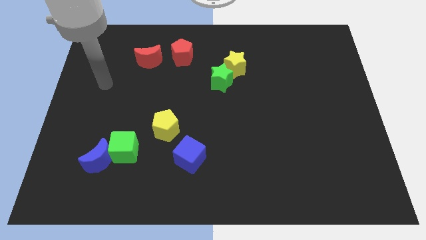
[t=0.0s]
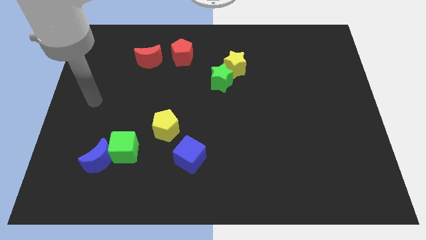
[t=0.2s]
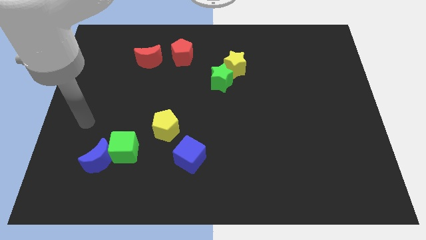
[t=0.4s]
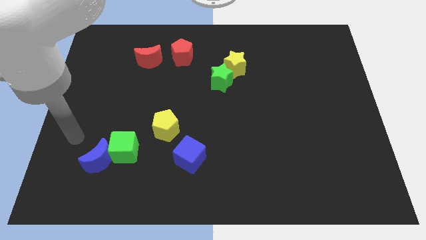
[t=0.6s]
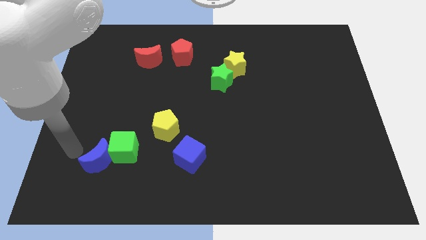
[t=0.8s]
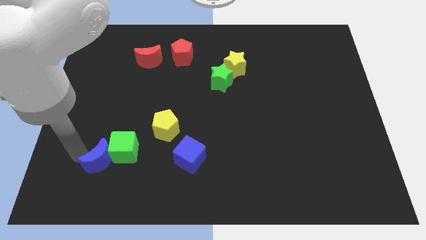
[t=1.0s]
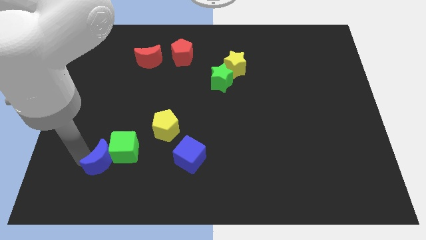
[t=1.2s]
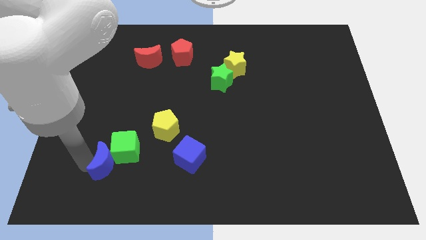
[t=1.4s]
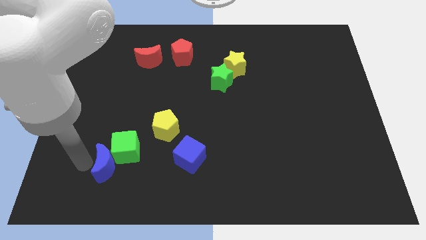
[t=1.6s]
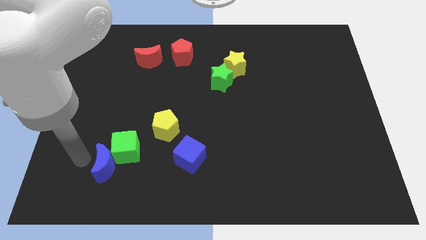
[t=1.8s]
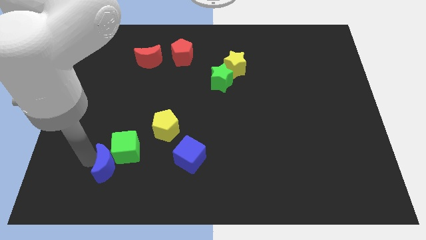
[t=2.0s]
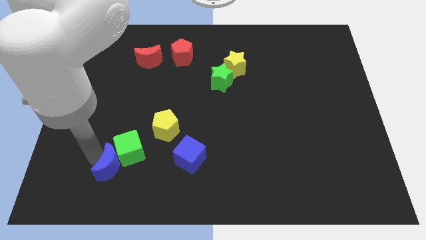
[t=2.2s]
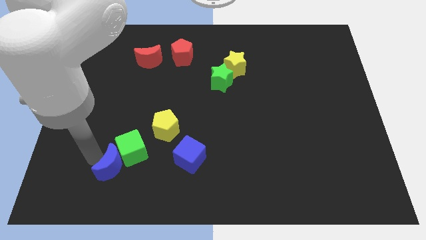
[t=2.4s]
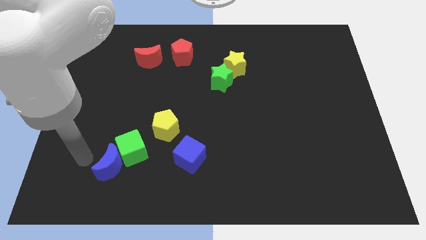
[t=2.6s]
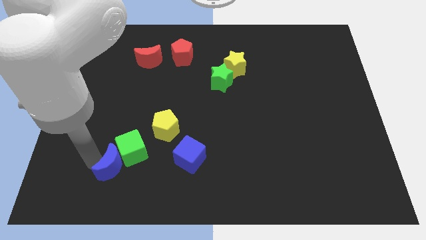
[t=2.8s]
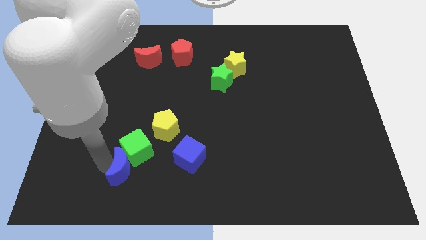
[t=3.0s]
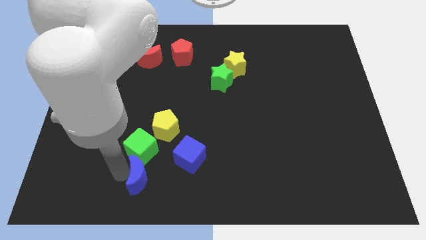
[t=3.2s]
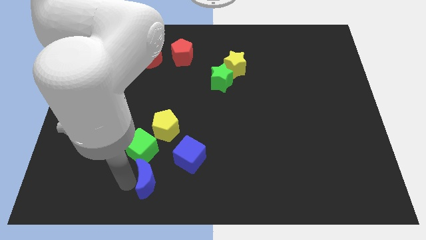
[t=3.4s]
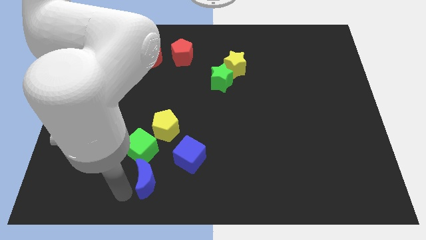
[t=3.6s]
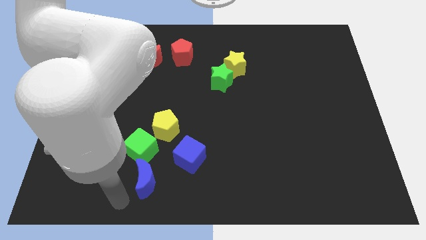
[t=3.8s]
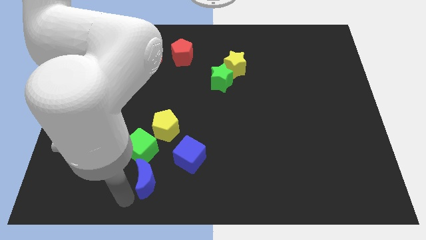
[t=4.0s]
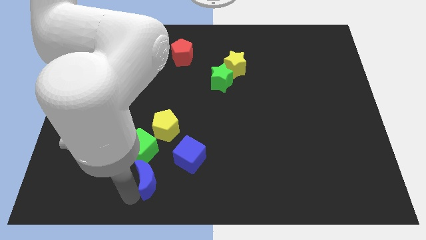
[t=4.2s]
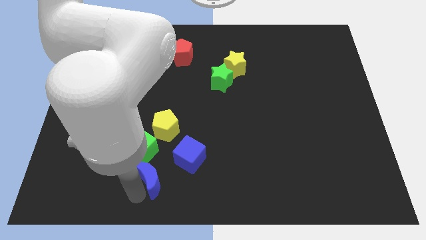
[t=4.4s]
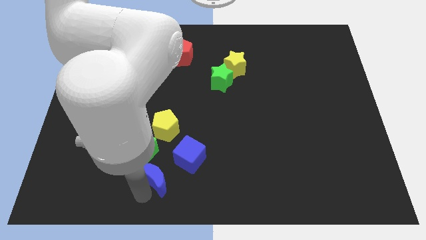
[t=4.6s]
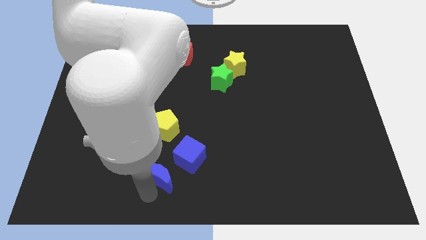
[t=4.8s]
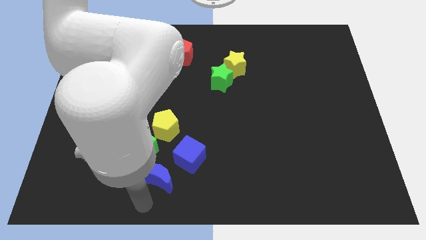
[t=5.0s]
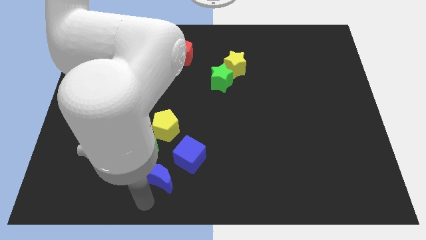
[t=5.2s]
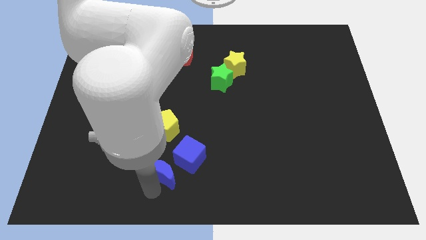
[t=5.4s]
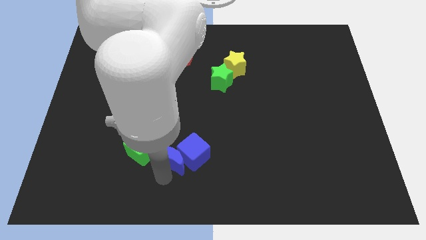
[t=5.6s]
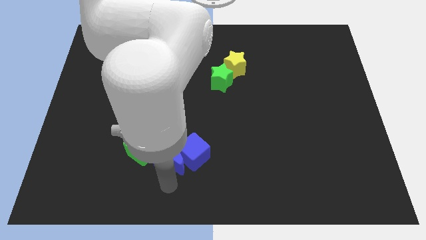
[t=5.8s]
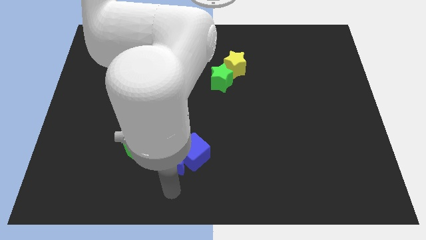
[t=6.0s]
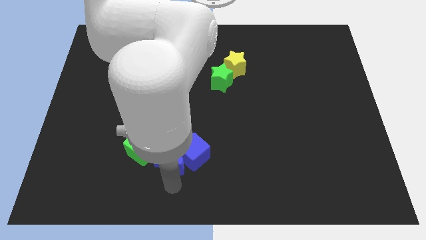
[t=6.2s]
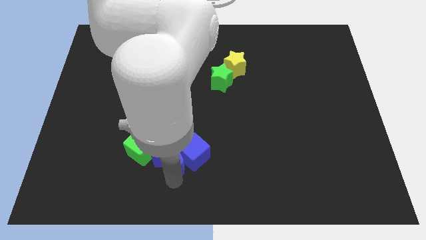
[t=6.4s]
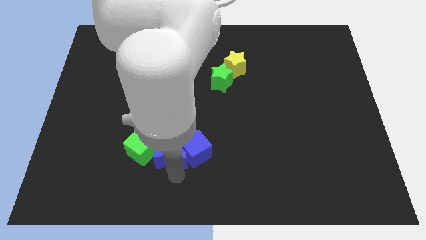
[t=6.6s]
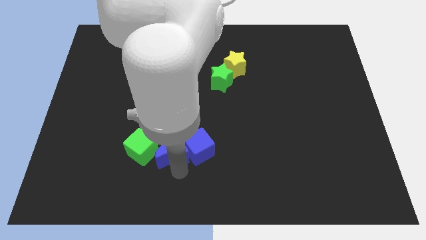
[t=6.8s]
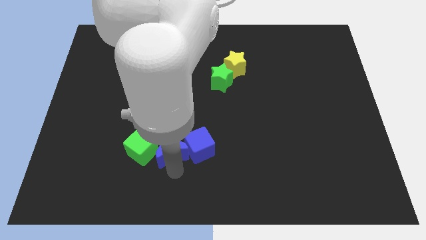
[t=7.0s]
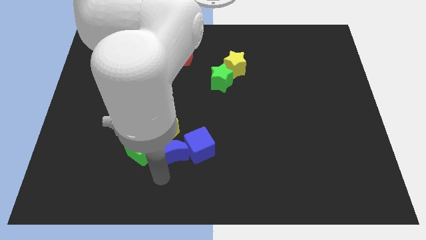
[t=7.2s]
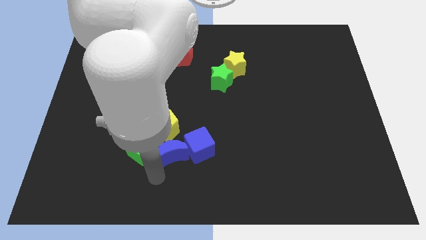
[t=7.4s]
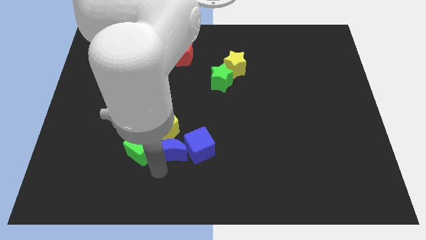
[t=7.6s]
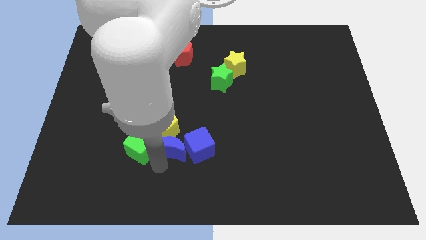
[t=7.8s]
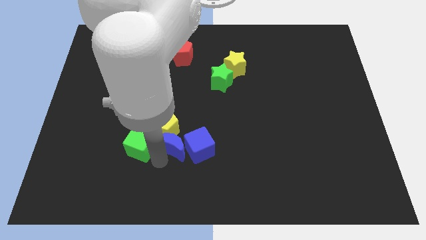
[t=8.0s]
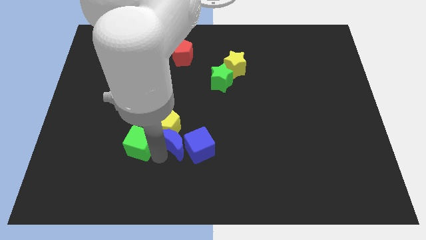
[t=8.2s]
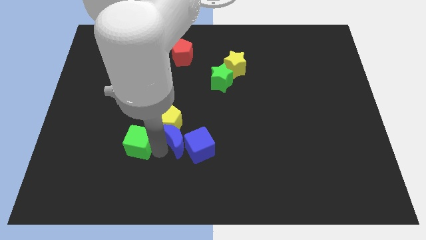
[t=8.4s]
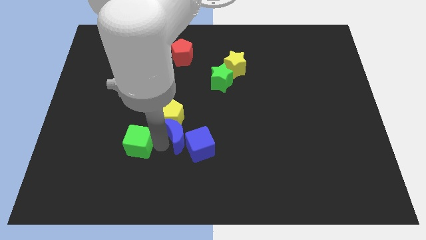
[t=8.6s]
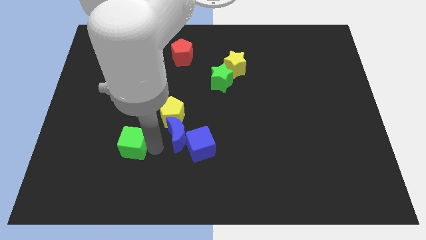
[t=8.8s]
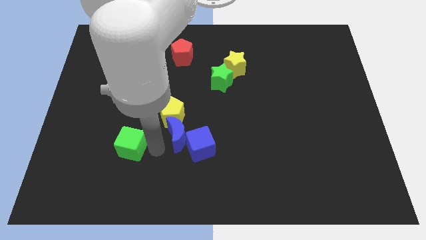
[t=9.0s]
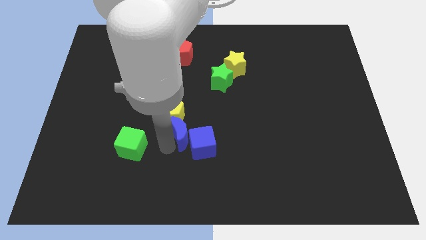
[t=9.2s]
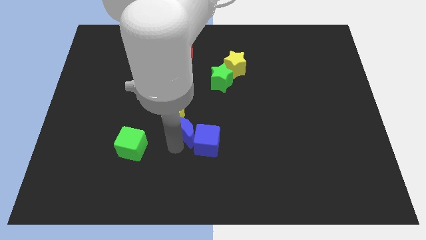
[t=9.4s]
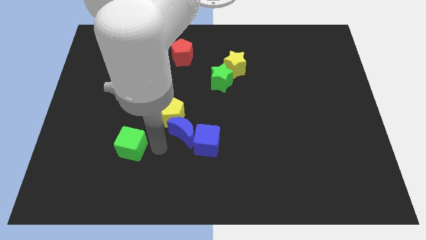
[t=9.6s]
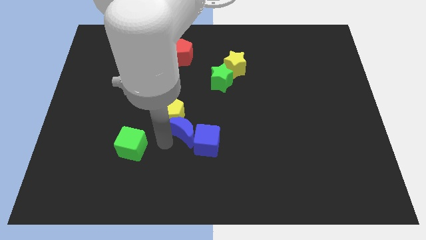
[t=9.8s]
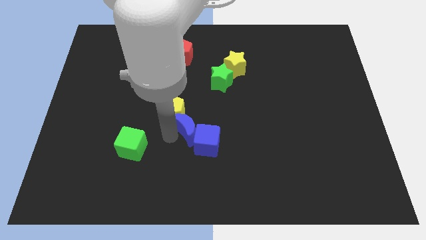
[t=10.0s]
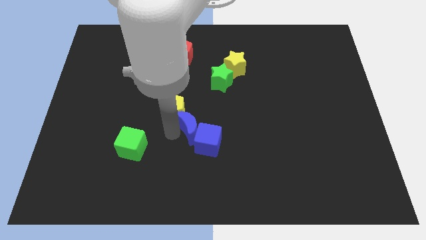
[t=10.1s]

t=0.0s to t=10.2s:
move the blue moon right of the yellow pentagon

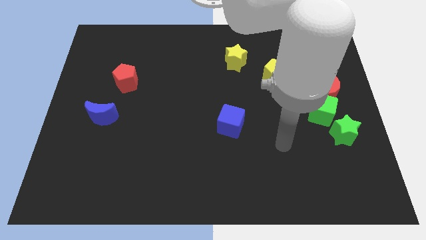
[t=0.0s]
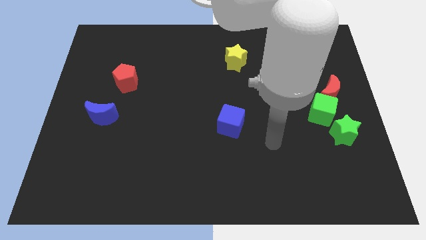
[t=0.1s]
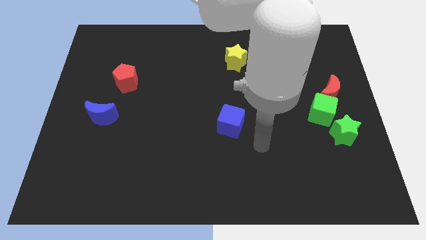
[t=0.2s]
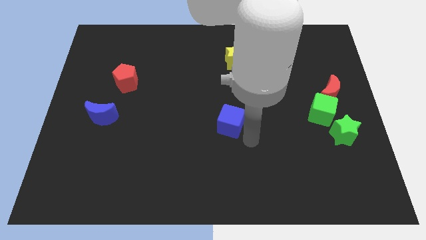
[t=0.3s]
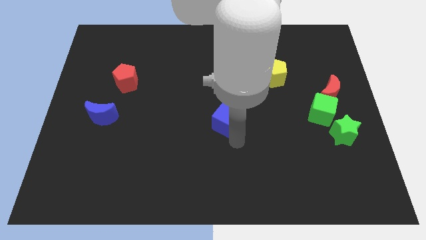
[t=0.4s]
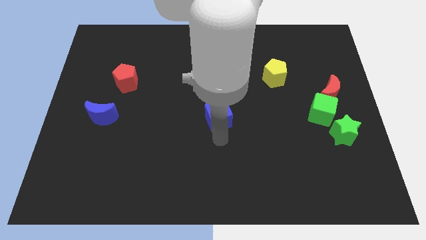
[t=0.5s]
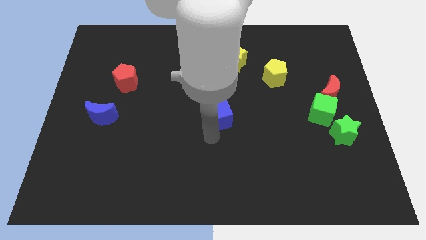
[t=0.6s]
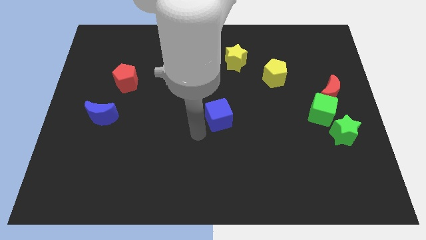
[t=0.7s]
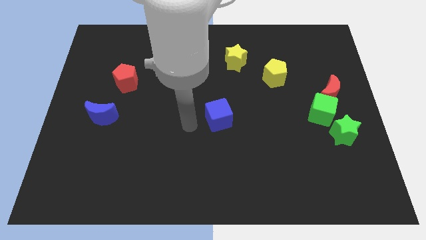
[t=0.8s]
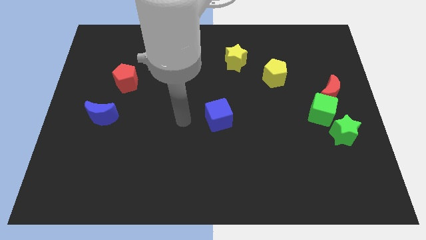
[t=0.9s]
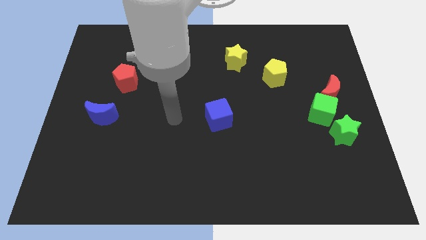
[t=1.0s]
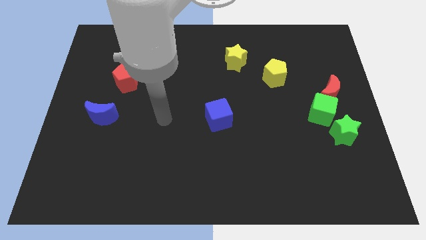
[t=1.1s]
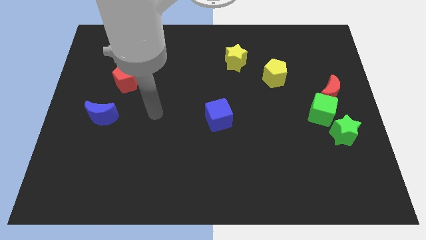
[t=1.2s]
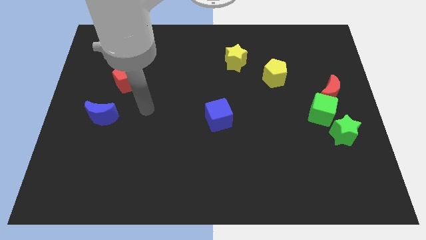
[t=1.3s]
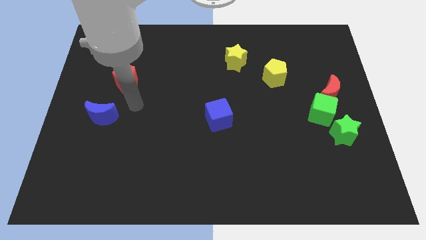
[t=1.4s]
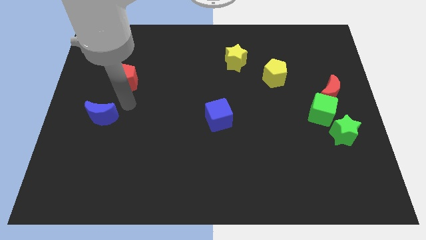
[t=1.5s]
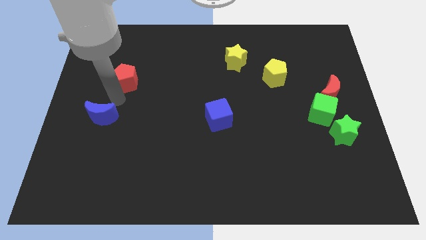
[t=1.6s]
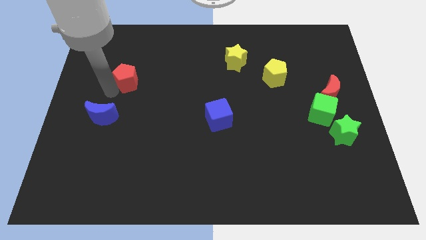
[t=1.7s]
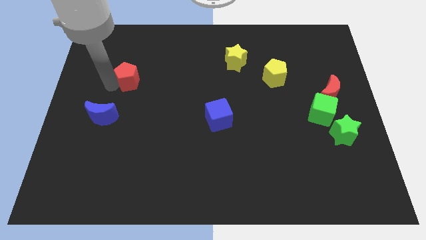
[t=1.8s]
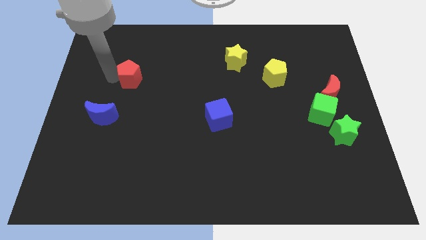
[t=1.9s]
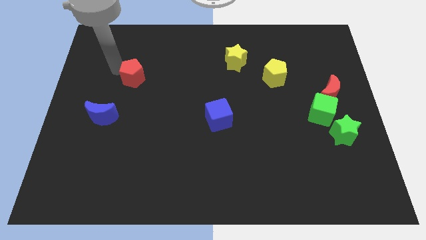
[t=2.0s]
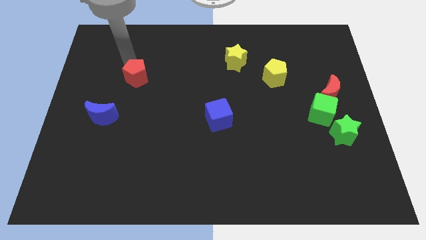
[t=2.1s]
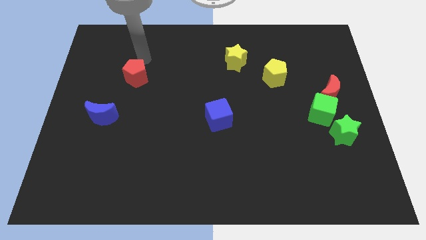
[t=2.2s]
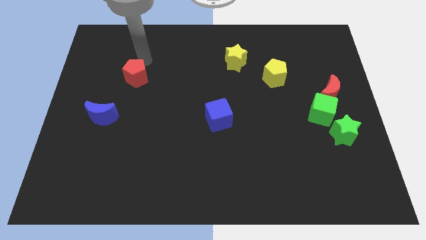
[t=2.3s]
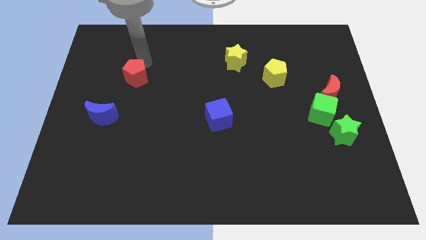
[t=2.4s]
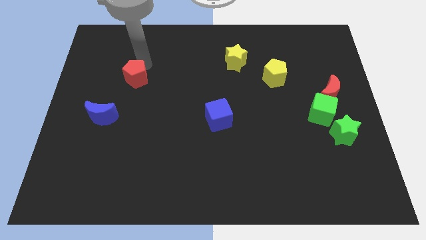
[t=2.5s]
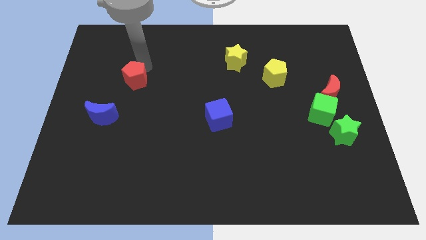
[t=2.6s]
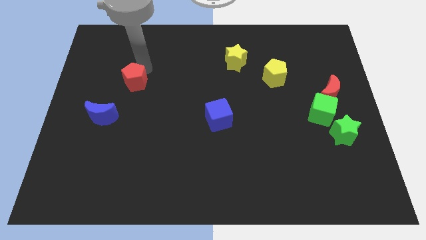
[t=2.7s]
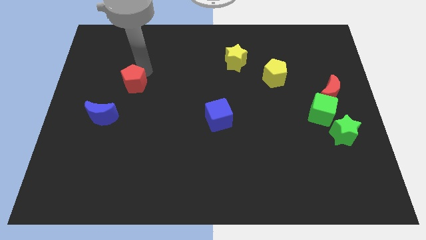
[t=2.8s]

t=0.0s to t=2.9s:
move the red pentagon to the top right of the blue moon
